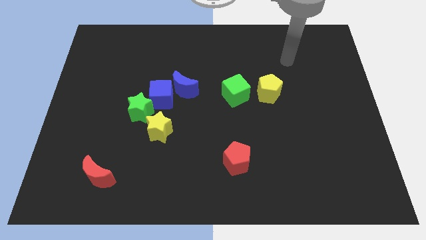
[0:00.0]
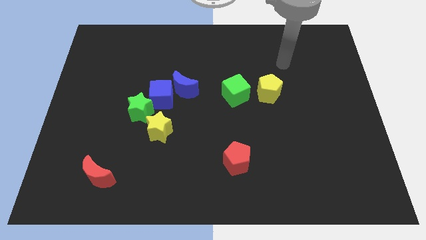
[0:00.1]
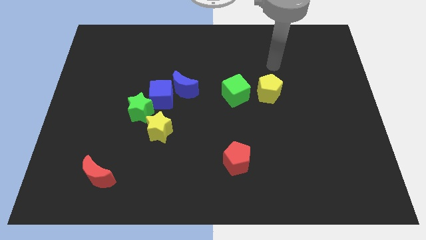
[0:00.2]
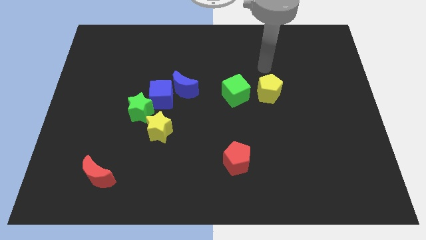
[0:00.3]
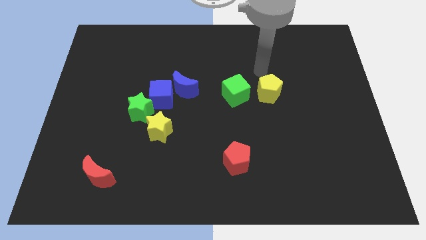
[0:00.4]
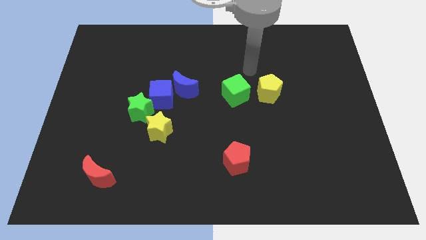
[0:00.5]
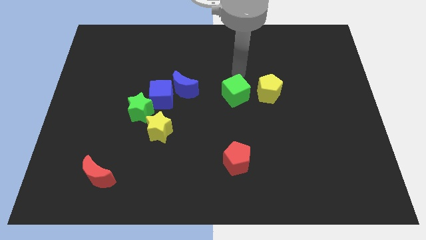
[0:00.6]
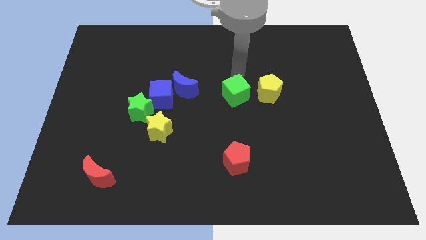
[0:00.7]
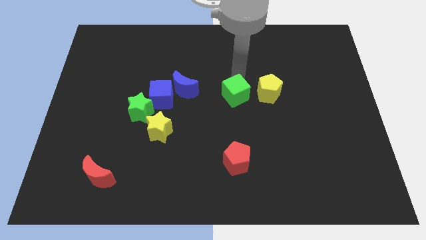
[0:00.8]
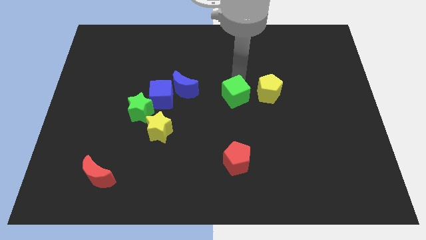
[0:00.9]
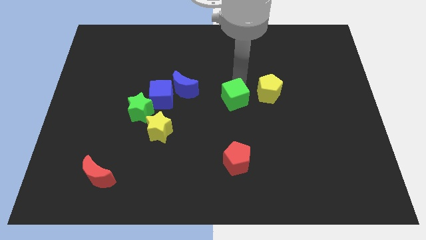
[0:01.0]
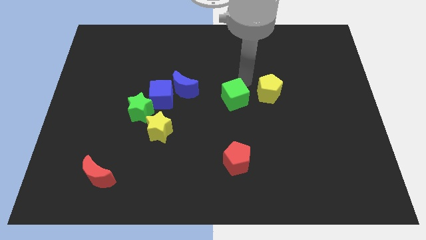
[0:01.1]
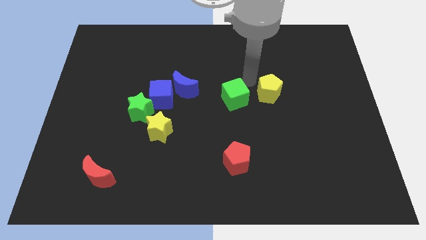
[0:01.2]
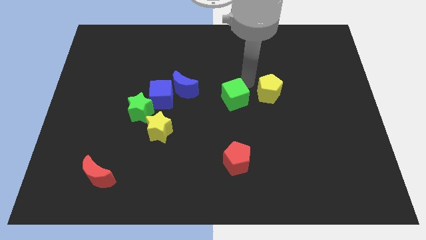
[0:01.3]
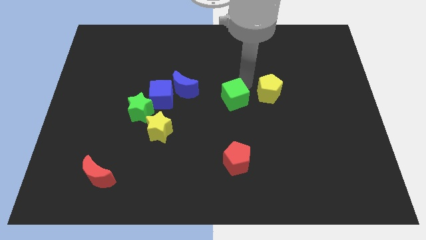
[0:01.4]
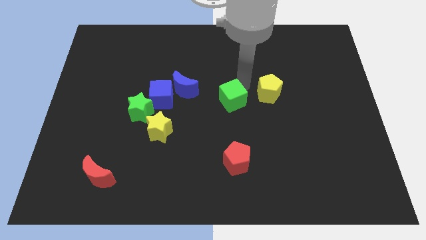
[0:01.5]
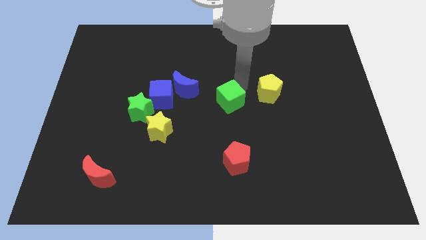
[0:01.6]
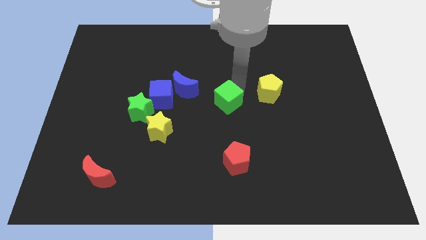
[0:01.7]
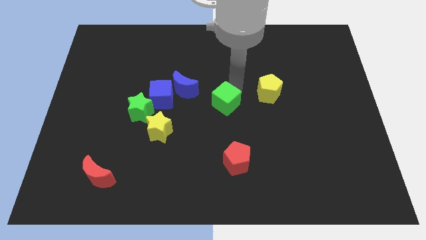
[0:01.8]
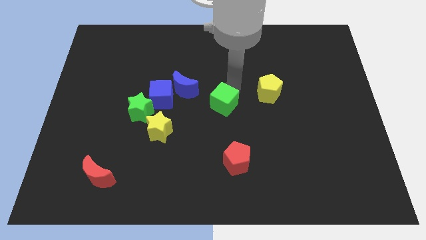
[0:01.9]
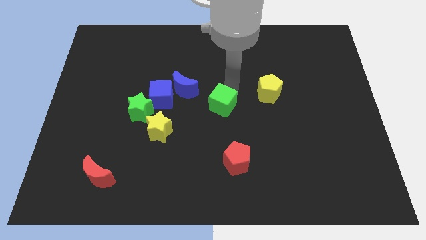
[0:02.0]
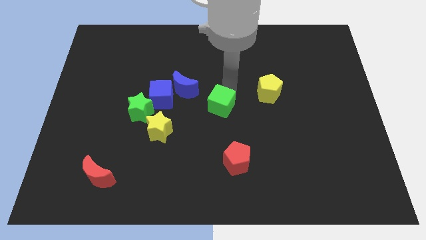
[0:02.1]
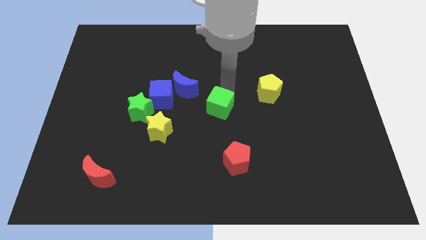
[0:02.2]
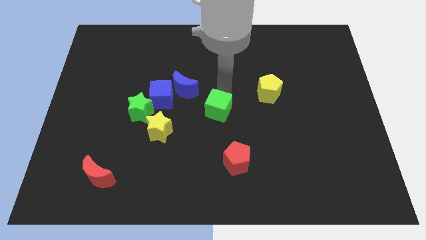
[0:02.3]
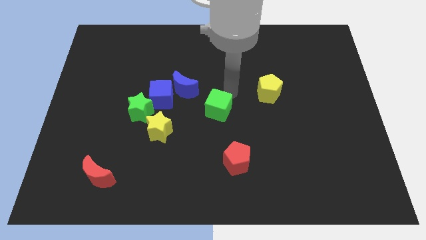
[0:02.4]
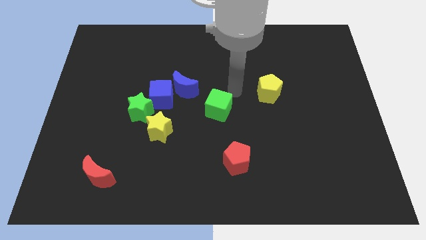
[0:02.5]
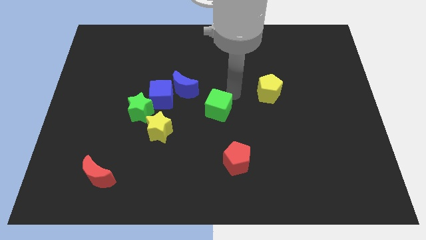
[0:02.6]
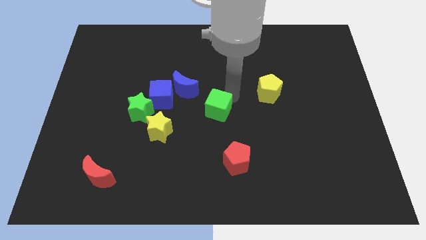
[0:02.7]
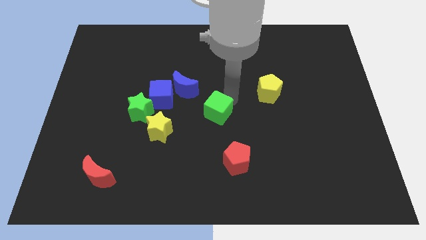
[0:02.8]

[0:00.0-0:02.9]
move the green cube a bit down and then to the left

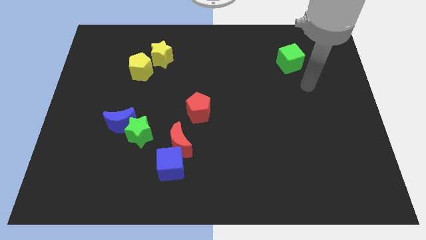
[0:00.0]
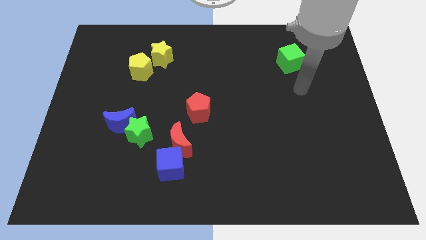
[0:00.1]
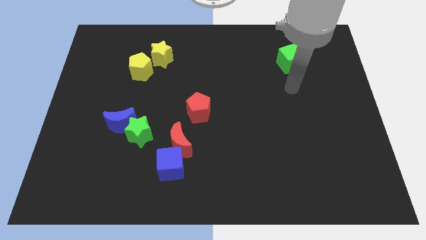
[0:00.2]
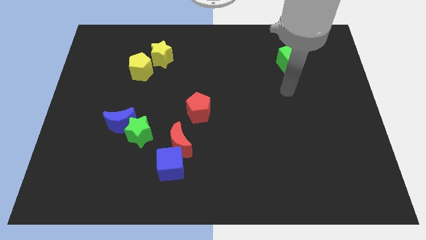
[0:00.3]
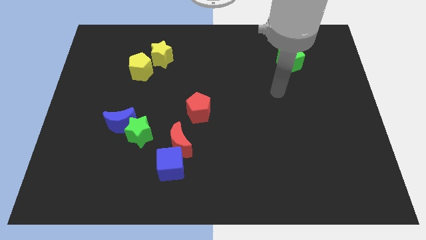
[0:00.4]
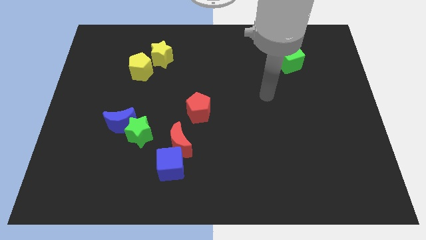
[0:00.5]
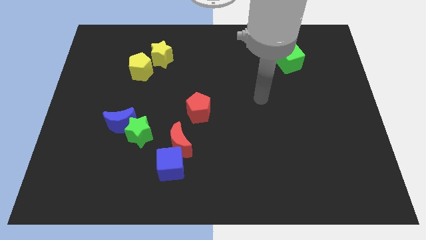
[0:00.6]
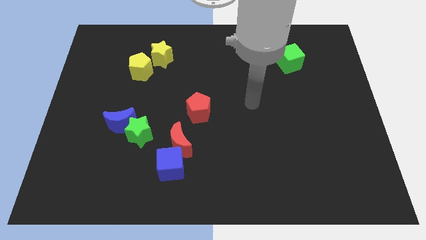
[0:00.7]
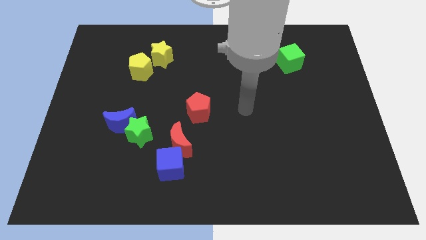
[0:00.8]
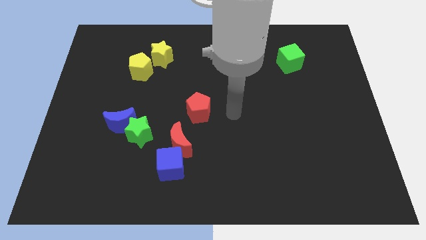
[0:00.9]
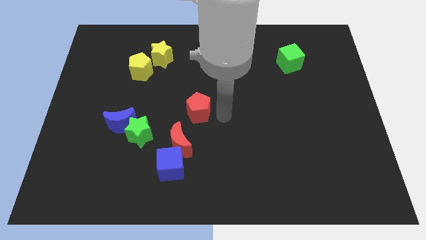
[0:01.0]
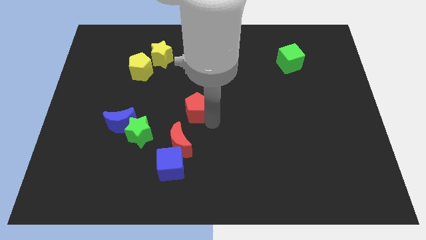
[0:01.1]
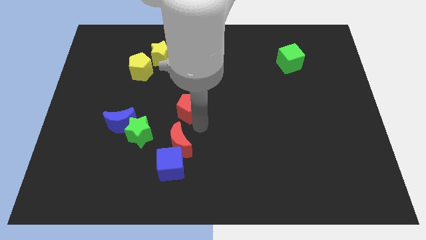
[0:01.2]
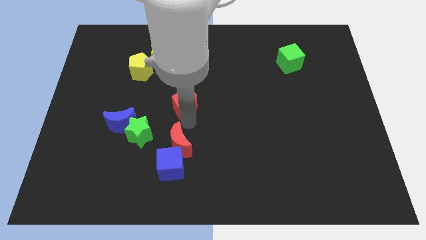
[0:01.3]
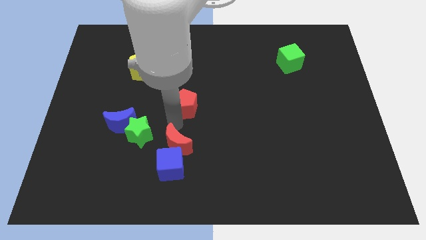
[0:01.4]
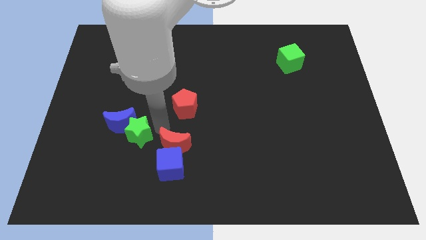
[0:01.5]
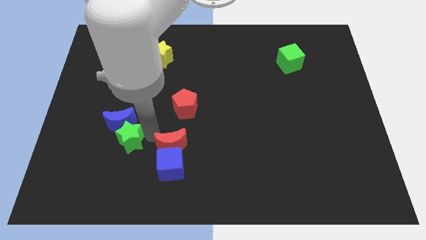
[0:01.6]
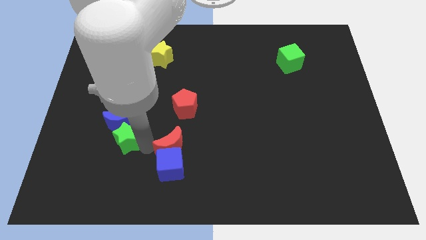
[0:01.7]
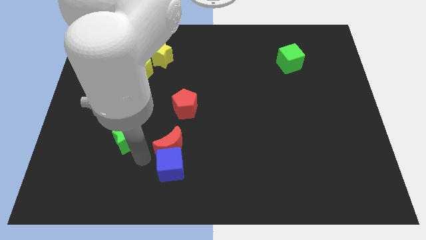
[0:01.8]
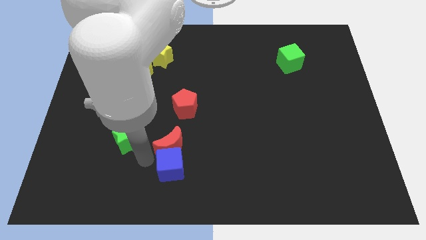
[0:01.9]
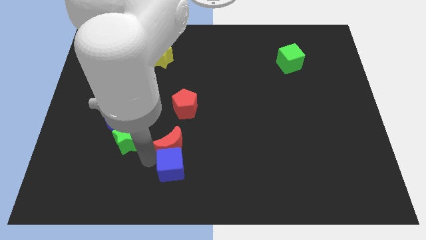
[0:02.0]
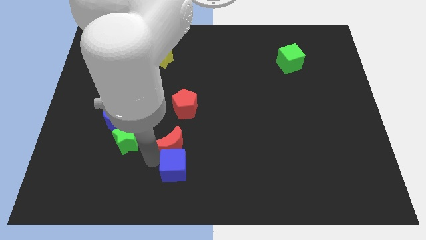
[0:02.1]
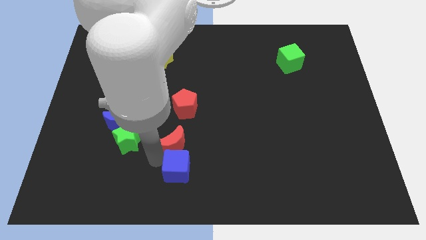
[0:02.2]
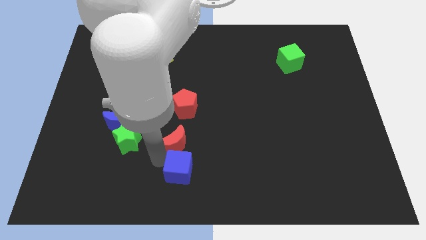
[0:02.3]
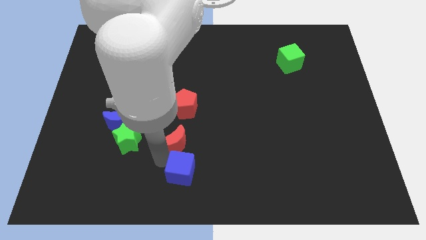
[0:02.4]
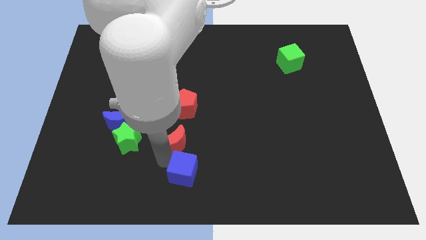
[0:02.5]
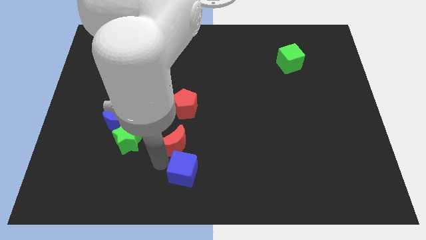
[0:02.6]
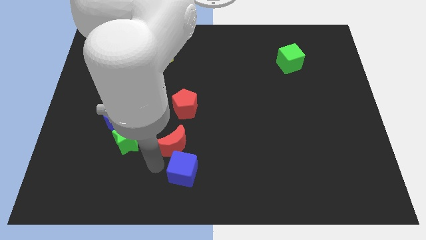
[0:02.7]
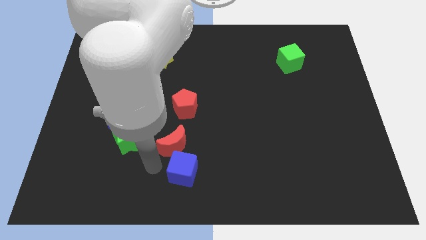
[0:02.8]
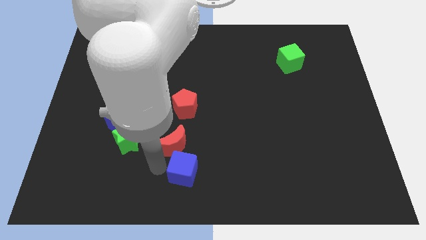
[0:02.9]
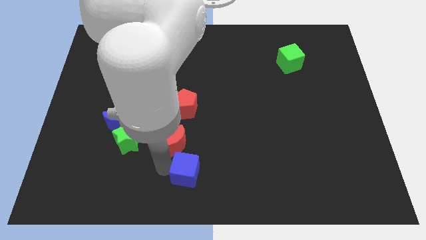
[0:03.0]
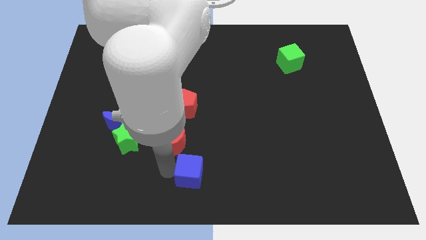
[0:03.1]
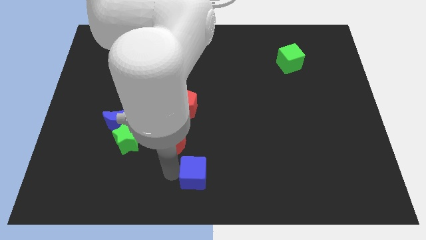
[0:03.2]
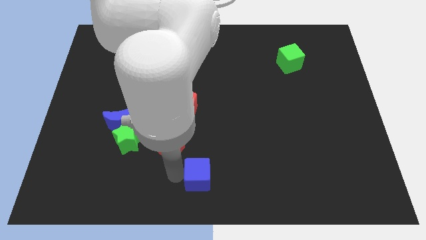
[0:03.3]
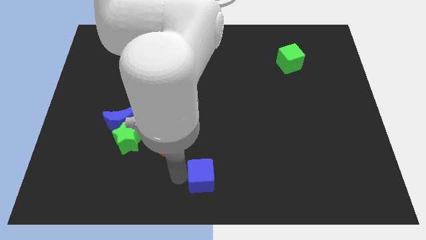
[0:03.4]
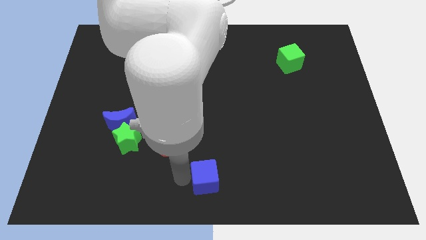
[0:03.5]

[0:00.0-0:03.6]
move the blue cube a little to the right

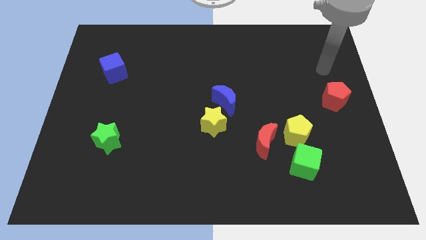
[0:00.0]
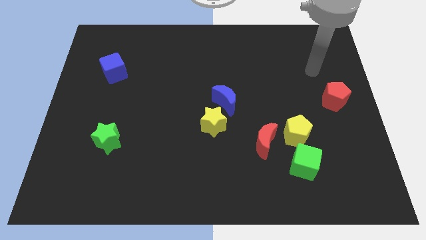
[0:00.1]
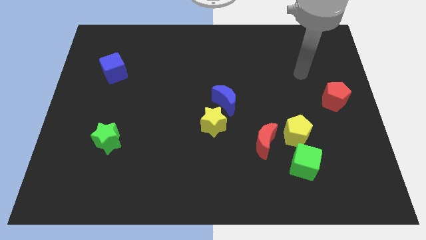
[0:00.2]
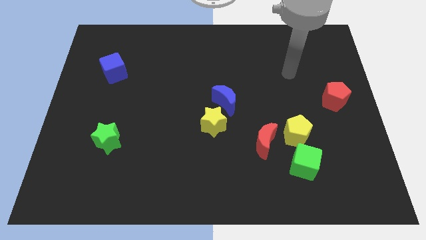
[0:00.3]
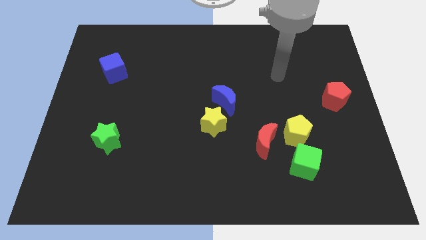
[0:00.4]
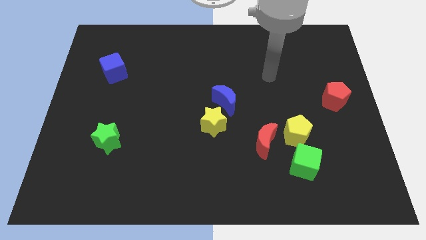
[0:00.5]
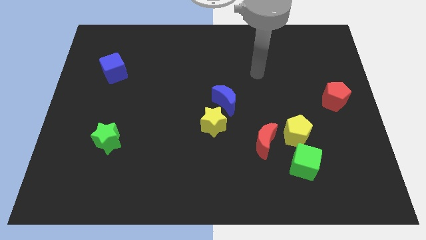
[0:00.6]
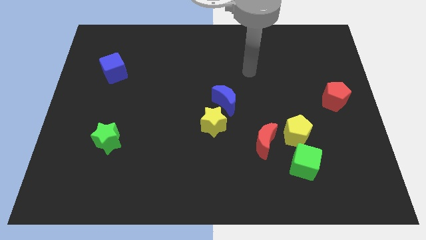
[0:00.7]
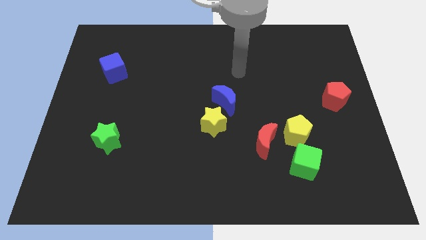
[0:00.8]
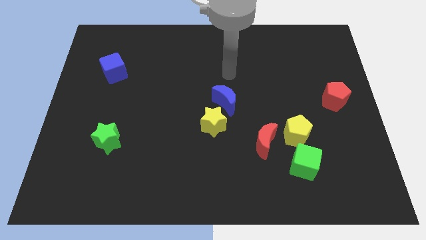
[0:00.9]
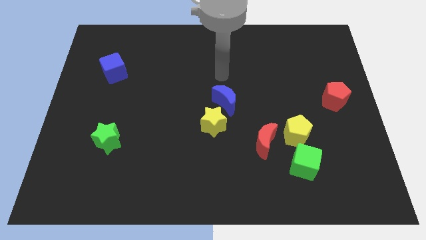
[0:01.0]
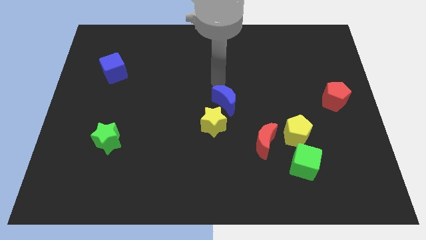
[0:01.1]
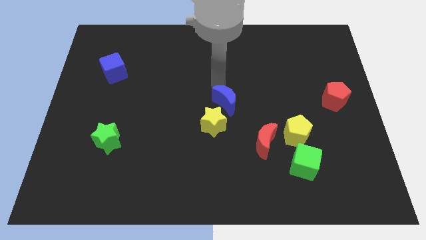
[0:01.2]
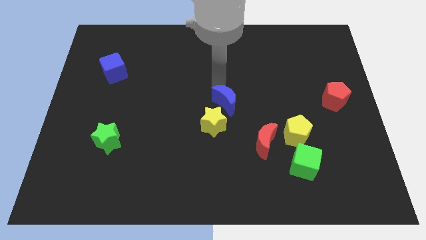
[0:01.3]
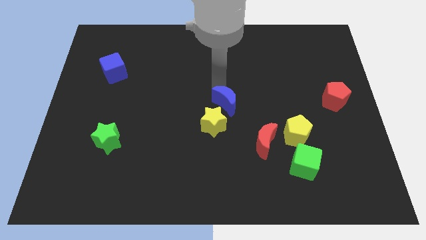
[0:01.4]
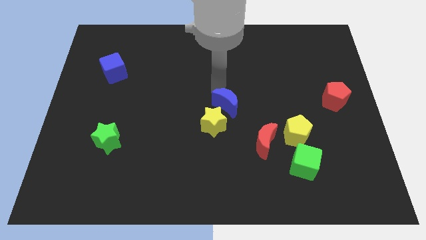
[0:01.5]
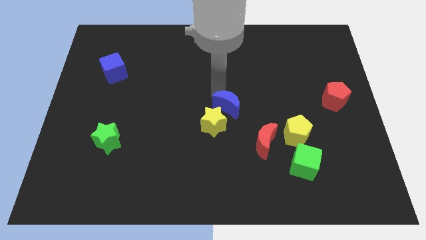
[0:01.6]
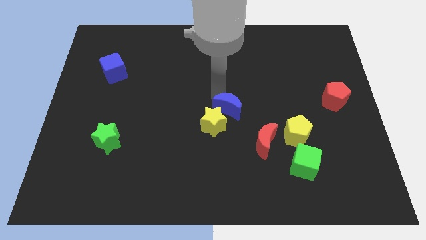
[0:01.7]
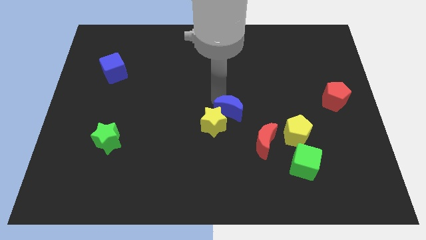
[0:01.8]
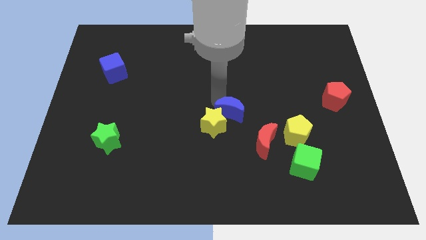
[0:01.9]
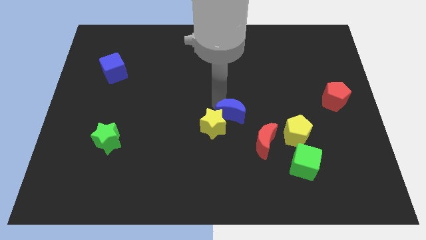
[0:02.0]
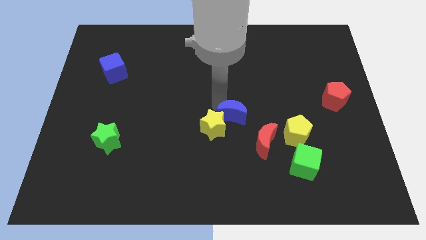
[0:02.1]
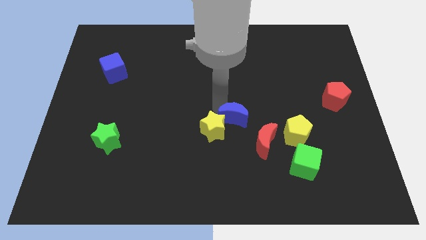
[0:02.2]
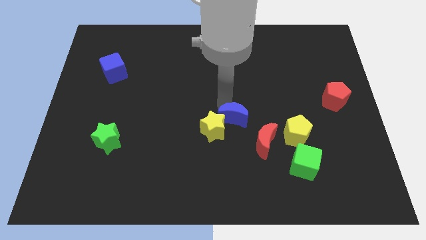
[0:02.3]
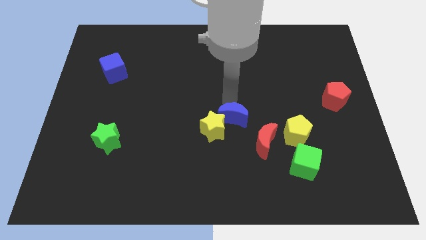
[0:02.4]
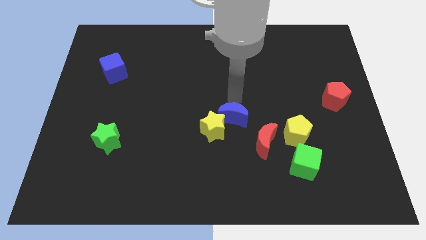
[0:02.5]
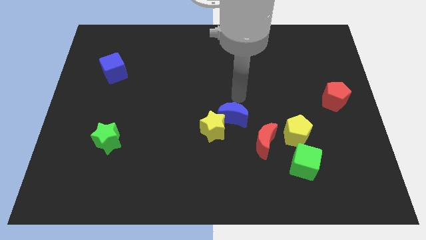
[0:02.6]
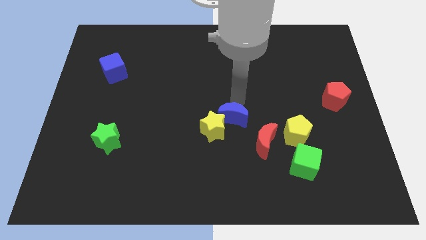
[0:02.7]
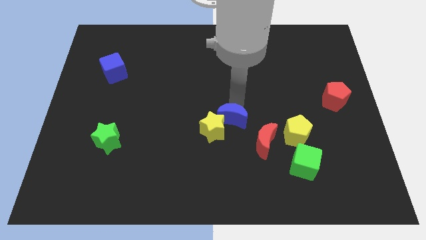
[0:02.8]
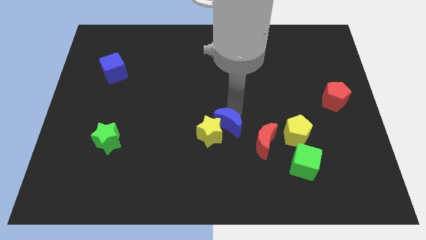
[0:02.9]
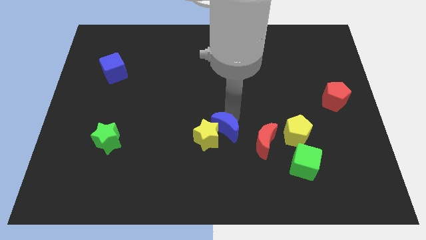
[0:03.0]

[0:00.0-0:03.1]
slide the blue moon down a little bit
